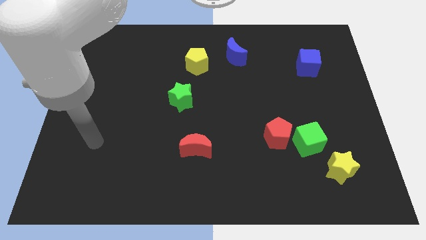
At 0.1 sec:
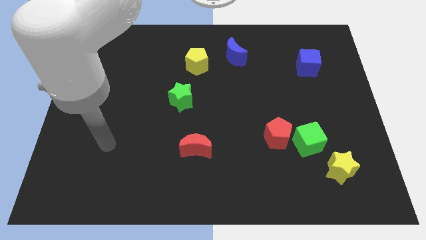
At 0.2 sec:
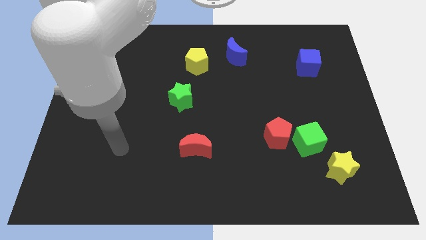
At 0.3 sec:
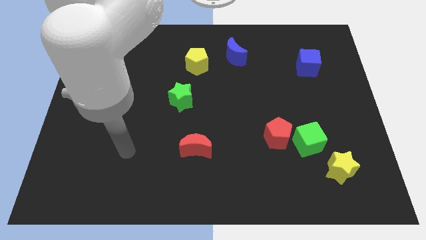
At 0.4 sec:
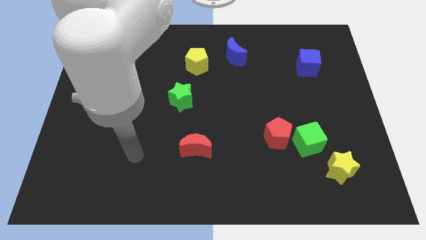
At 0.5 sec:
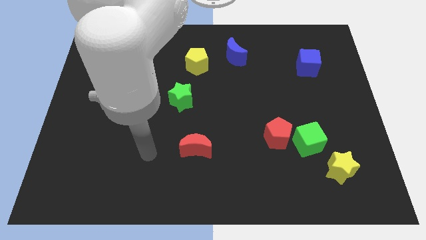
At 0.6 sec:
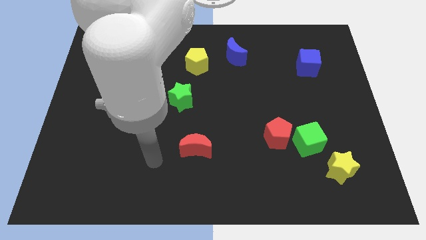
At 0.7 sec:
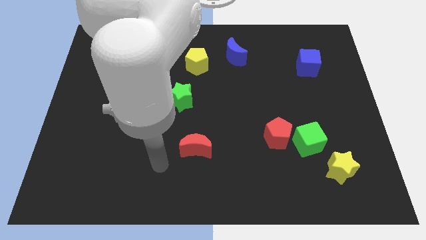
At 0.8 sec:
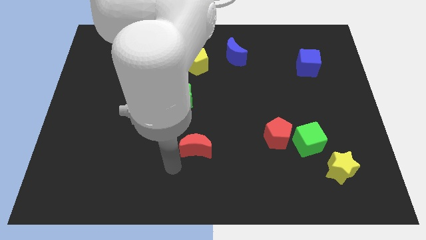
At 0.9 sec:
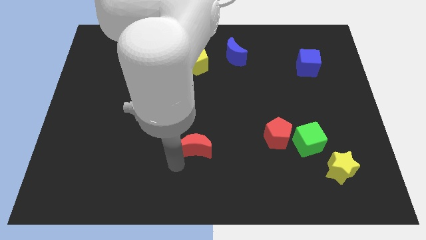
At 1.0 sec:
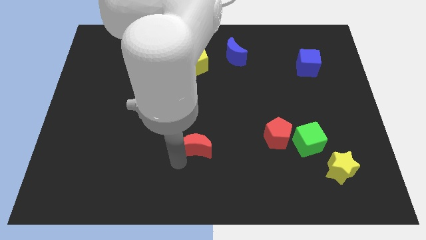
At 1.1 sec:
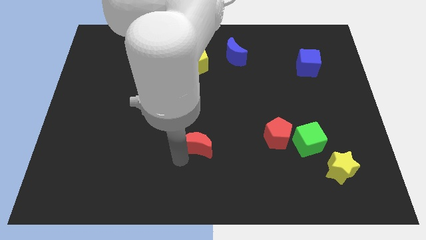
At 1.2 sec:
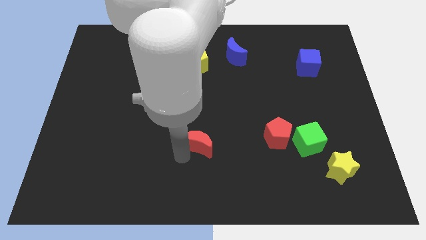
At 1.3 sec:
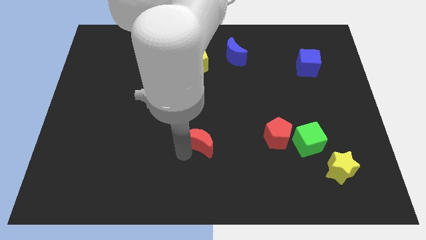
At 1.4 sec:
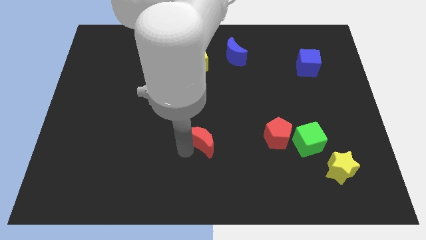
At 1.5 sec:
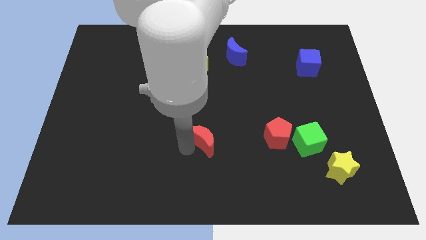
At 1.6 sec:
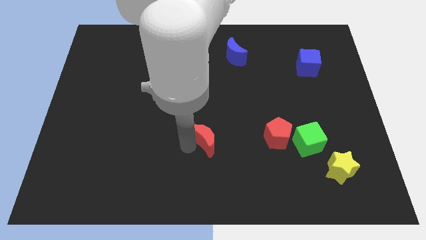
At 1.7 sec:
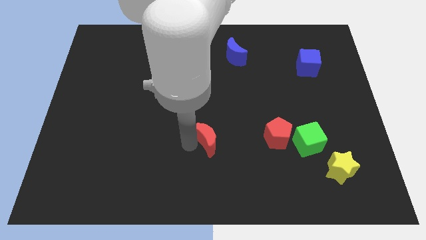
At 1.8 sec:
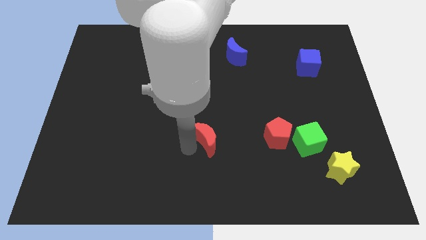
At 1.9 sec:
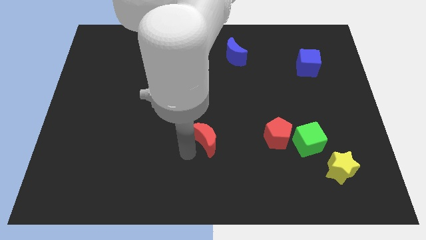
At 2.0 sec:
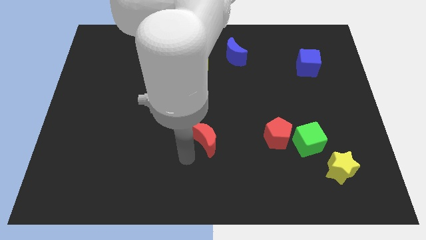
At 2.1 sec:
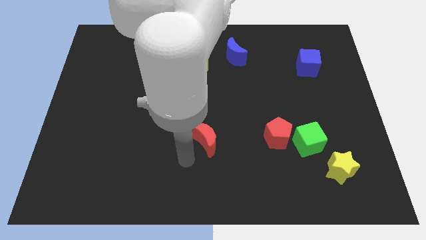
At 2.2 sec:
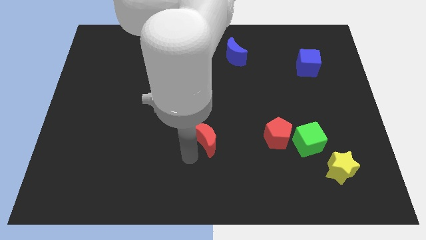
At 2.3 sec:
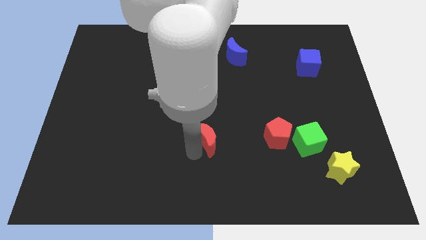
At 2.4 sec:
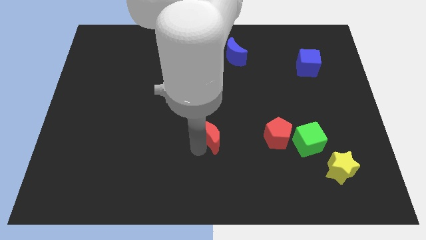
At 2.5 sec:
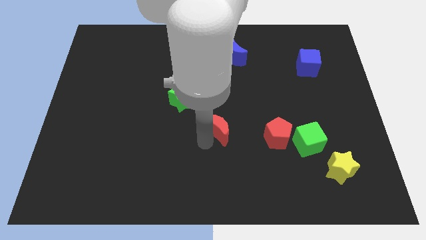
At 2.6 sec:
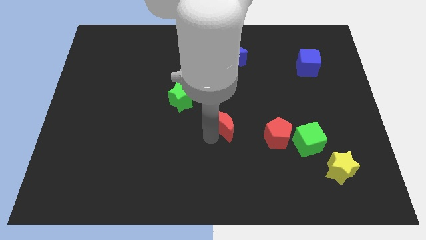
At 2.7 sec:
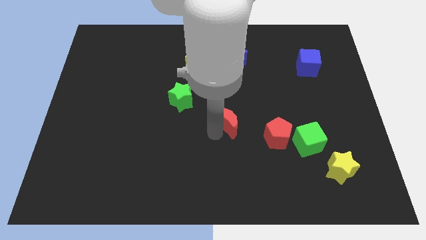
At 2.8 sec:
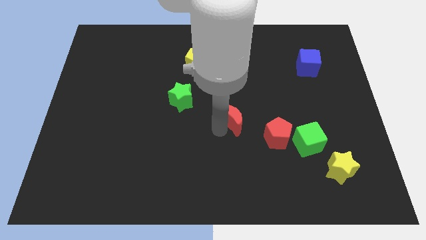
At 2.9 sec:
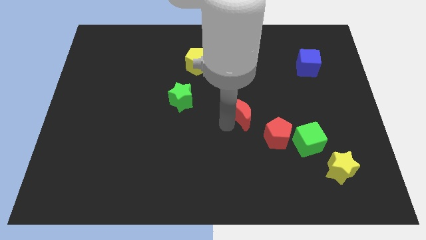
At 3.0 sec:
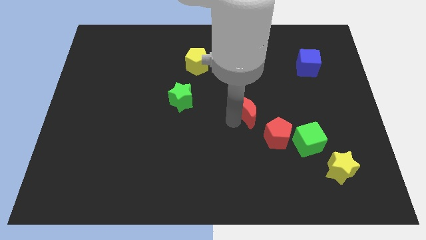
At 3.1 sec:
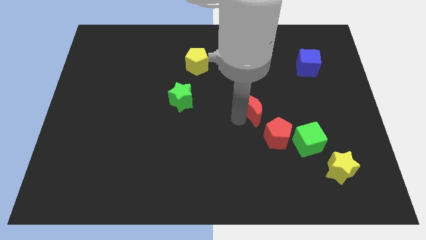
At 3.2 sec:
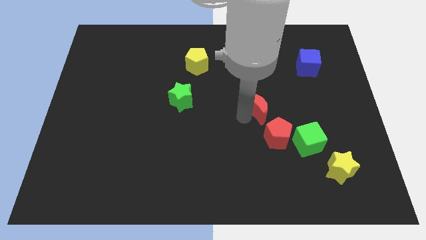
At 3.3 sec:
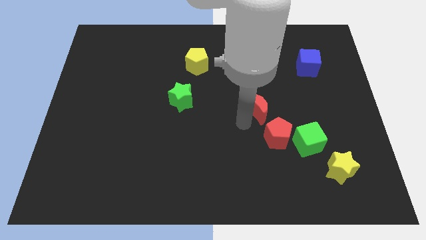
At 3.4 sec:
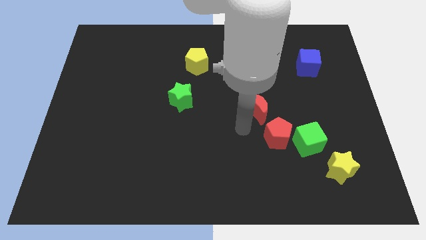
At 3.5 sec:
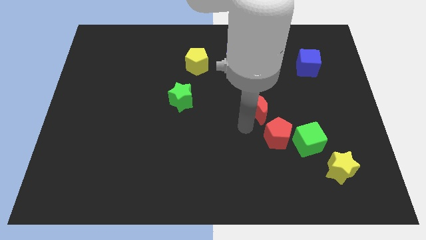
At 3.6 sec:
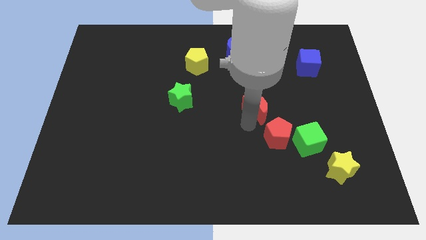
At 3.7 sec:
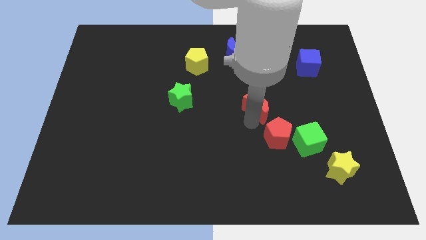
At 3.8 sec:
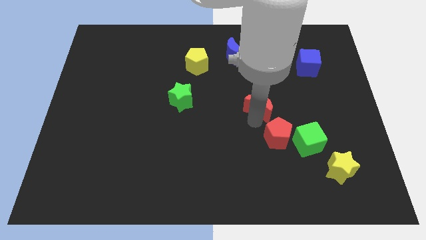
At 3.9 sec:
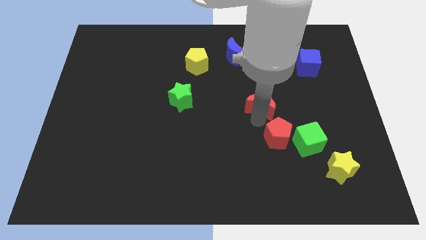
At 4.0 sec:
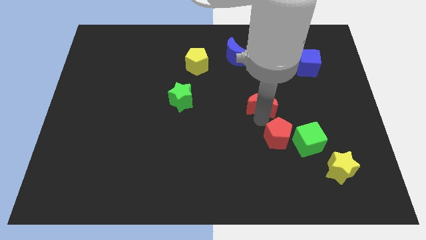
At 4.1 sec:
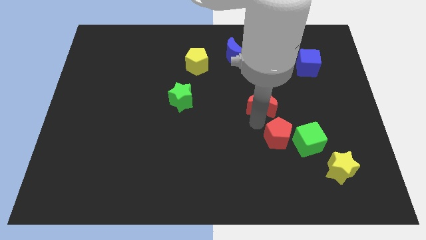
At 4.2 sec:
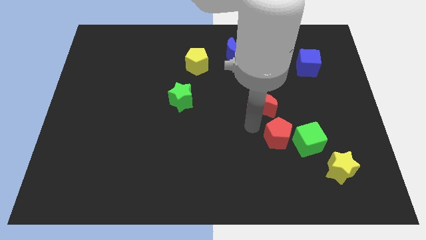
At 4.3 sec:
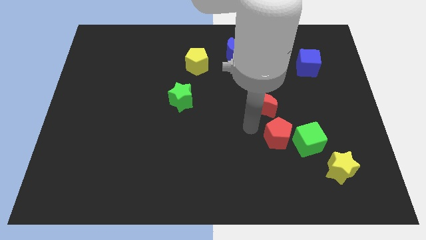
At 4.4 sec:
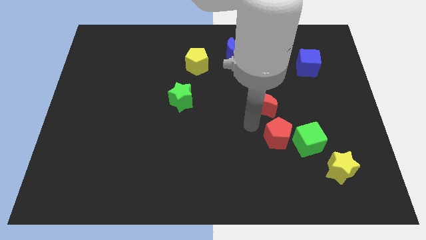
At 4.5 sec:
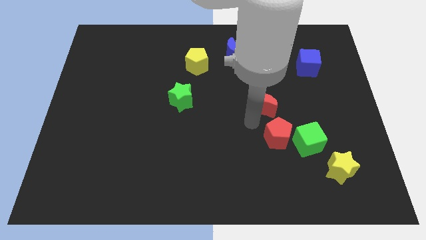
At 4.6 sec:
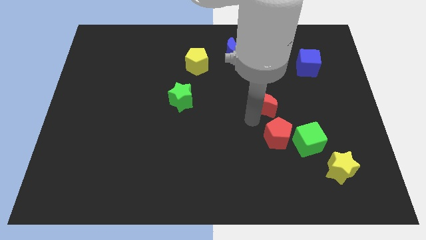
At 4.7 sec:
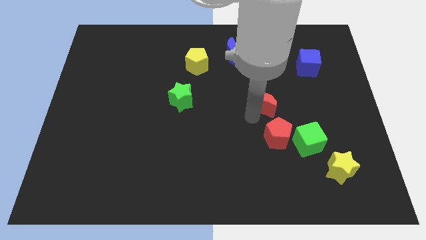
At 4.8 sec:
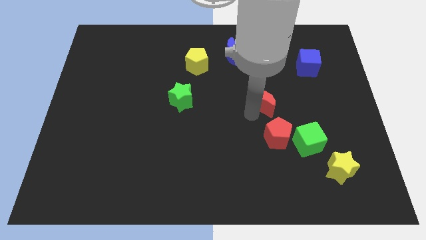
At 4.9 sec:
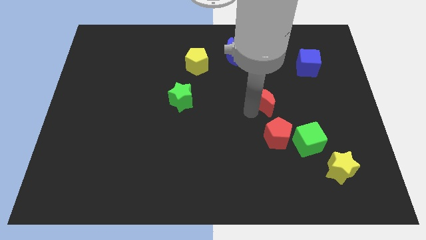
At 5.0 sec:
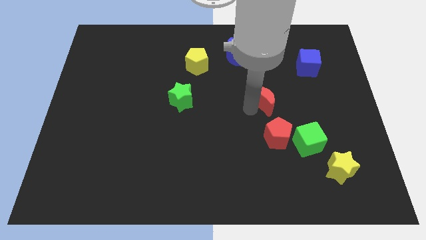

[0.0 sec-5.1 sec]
push the red moon diagonally up and right

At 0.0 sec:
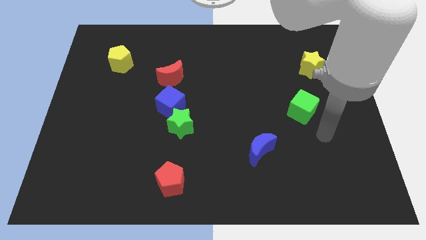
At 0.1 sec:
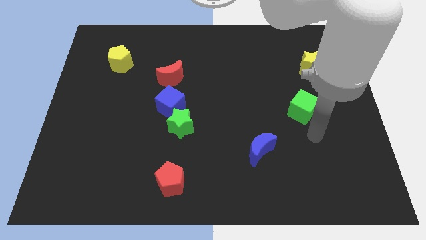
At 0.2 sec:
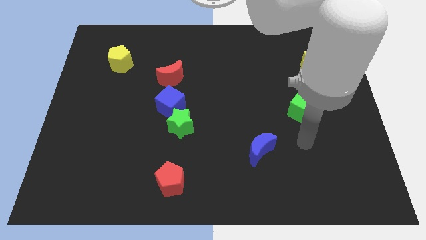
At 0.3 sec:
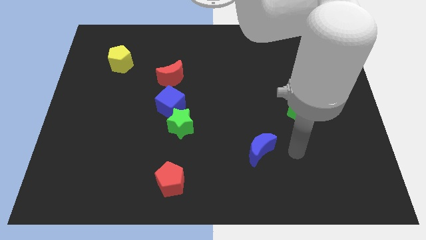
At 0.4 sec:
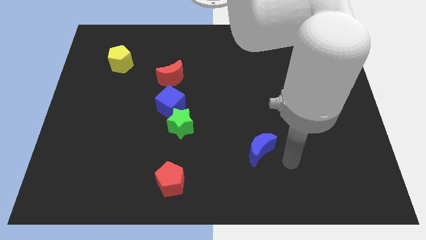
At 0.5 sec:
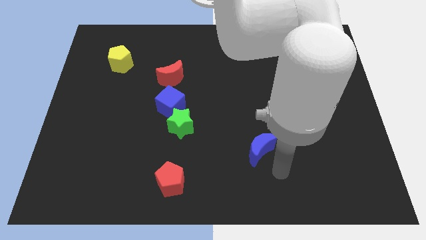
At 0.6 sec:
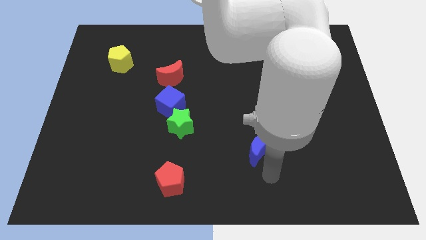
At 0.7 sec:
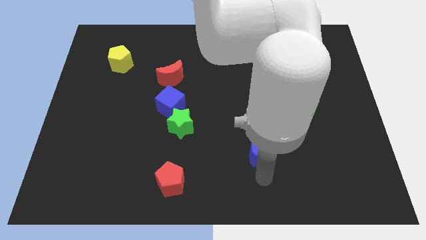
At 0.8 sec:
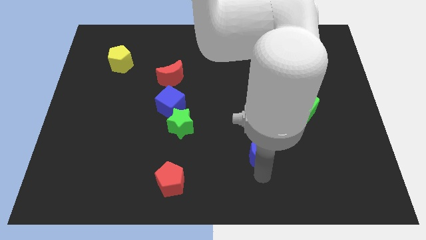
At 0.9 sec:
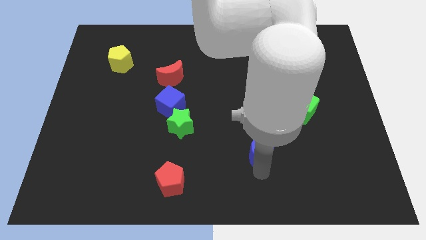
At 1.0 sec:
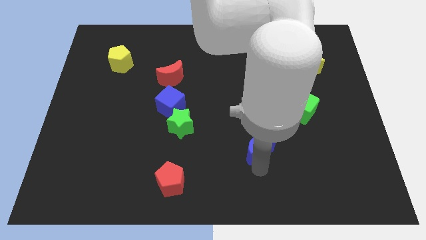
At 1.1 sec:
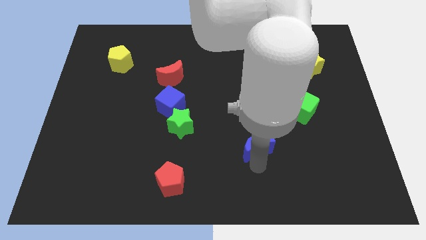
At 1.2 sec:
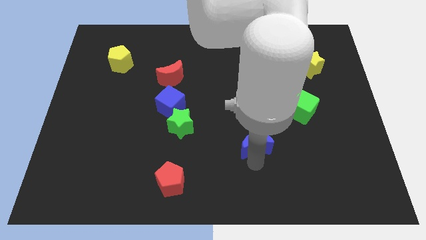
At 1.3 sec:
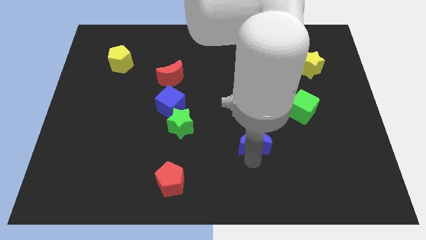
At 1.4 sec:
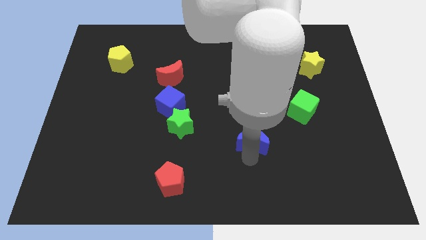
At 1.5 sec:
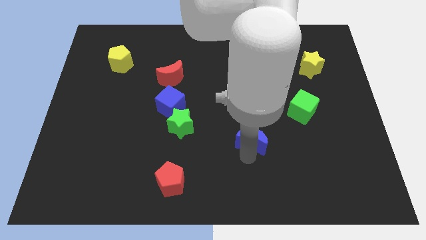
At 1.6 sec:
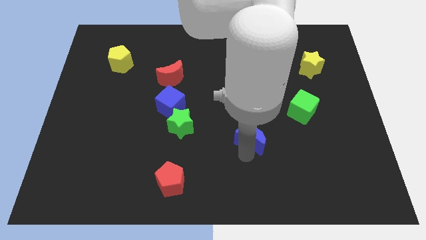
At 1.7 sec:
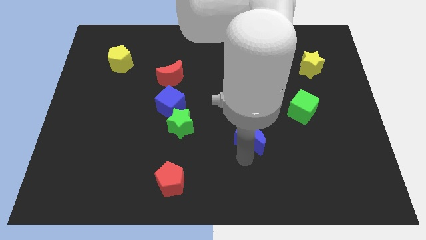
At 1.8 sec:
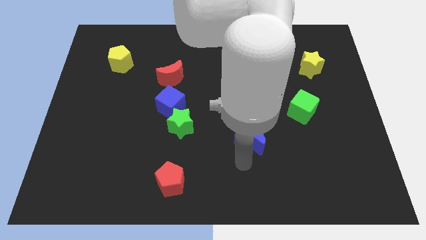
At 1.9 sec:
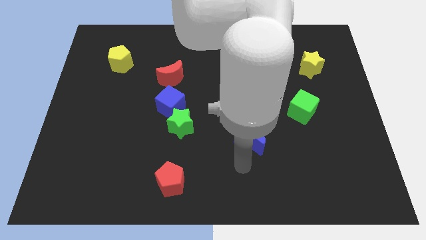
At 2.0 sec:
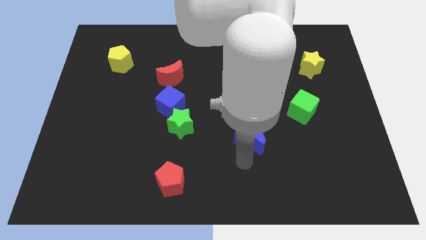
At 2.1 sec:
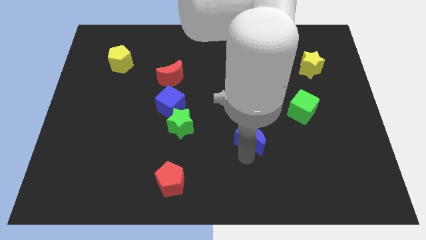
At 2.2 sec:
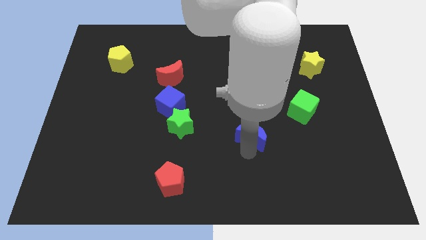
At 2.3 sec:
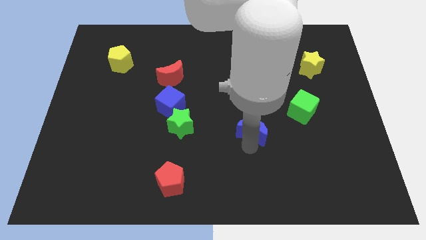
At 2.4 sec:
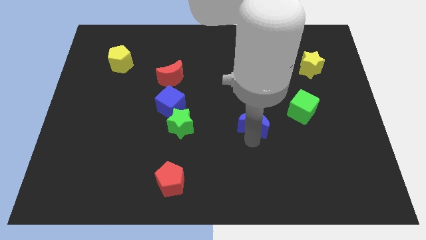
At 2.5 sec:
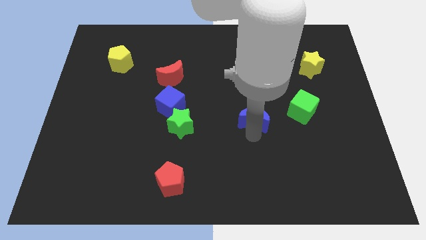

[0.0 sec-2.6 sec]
slightly move the blue moon upwards
